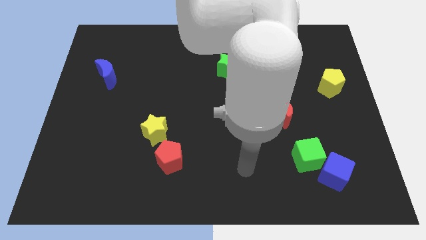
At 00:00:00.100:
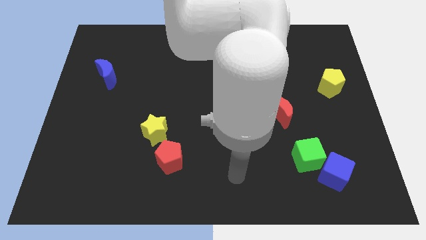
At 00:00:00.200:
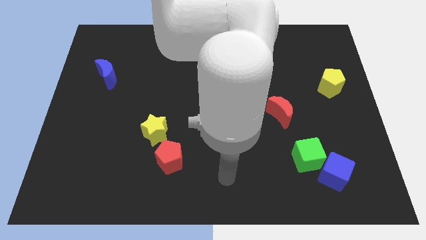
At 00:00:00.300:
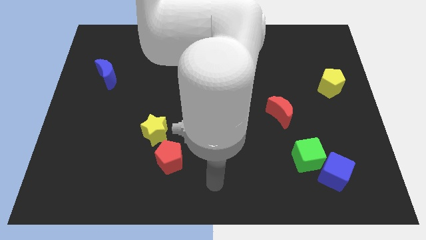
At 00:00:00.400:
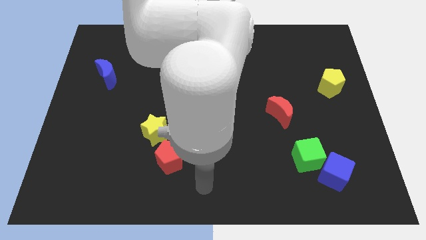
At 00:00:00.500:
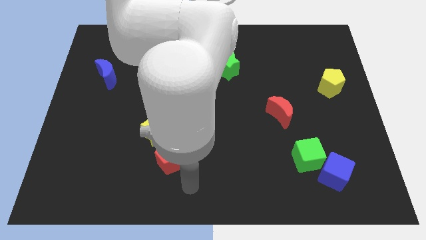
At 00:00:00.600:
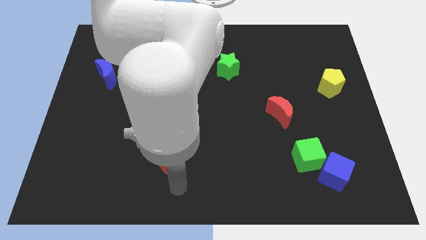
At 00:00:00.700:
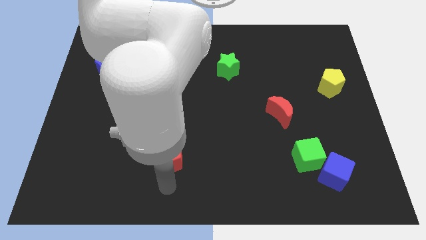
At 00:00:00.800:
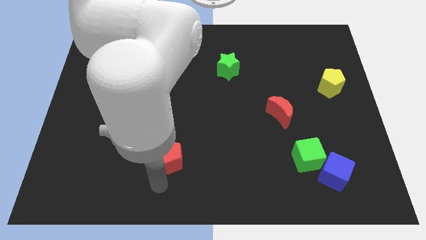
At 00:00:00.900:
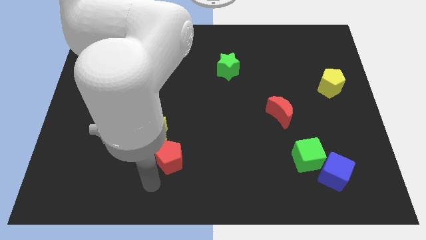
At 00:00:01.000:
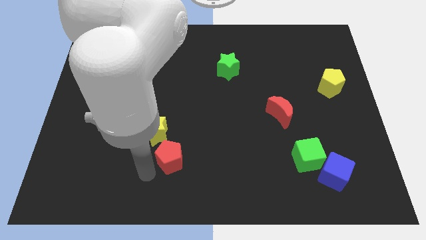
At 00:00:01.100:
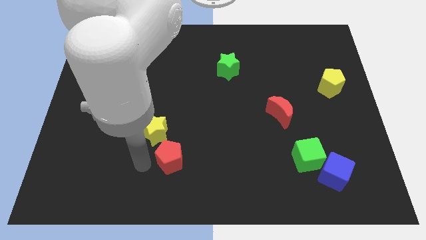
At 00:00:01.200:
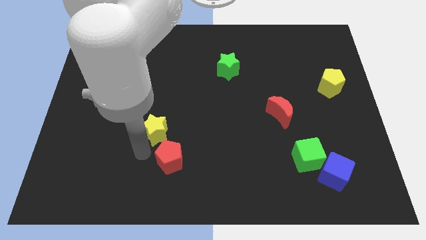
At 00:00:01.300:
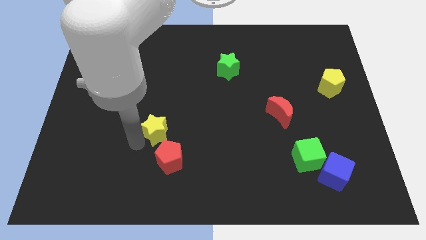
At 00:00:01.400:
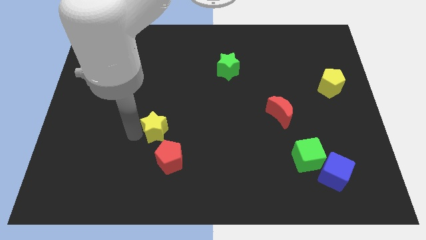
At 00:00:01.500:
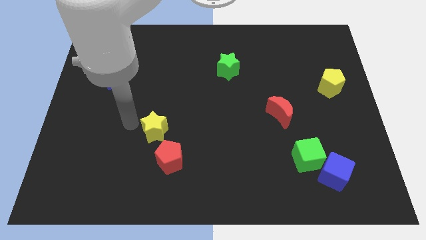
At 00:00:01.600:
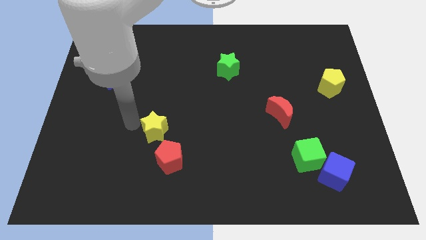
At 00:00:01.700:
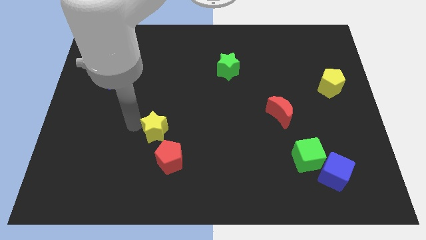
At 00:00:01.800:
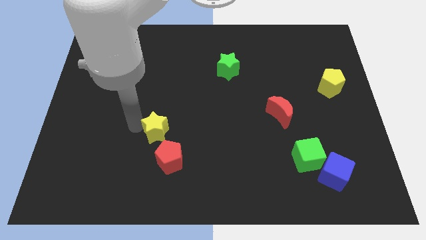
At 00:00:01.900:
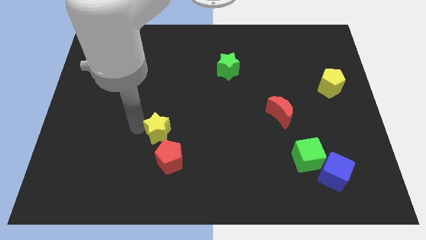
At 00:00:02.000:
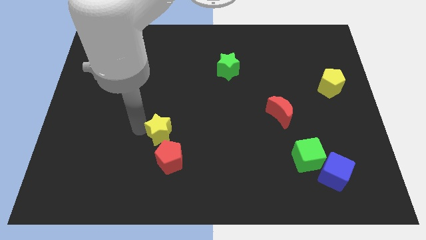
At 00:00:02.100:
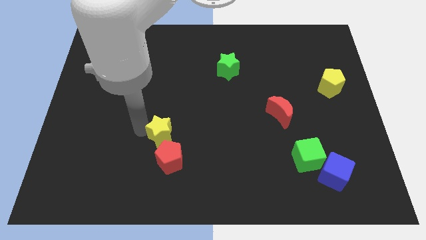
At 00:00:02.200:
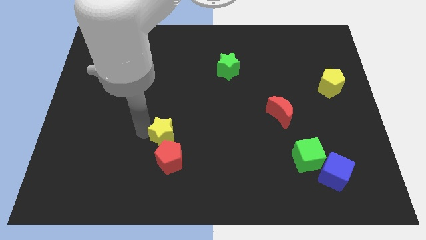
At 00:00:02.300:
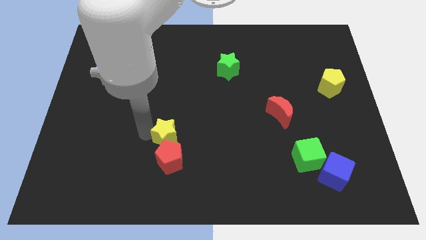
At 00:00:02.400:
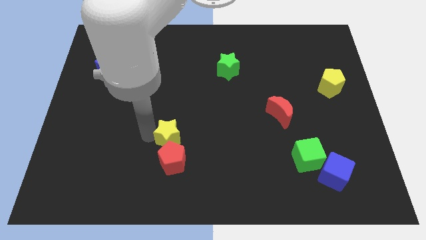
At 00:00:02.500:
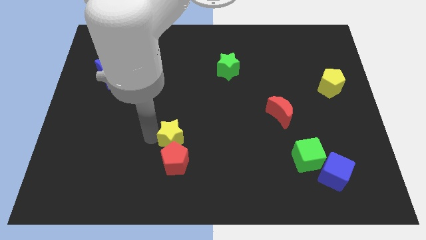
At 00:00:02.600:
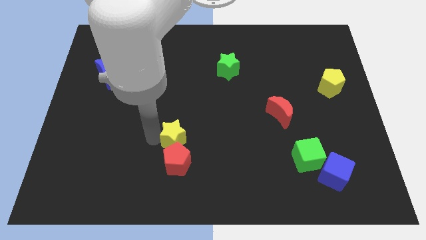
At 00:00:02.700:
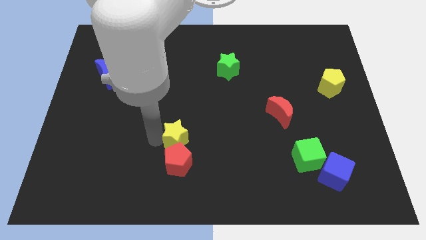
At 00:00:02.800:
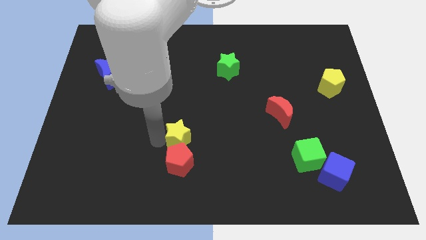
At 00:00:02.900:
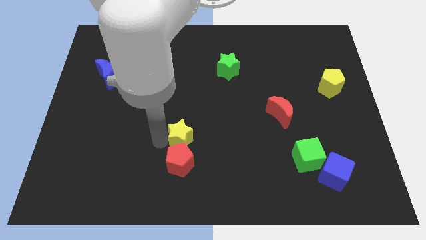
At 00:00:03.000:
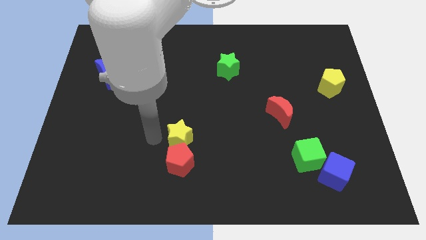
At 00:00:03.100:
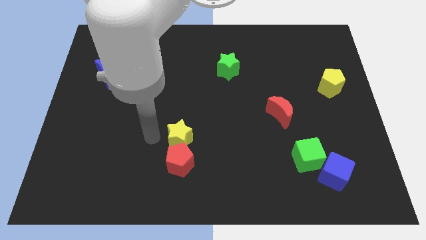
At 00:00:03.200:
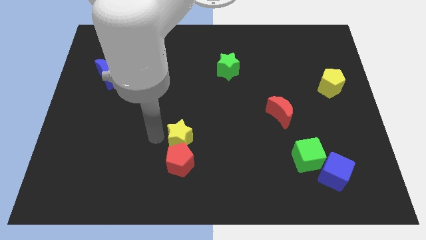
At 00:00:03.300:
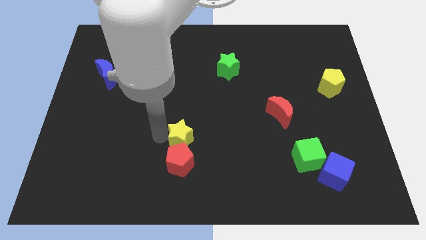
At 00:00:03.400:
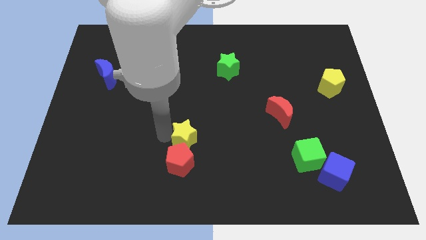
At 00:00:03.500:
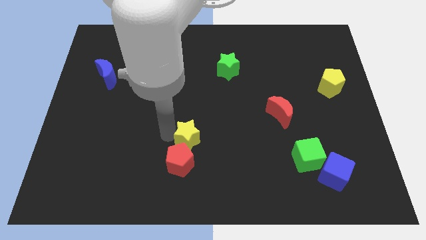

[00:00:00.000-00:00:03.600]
slide the yellow star slightly right

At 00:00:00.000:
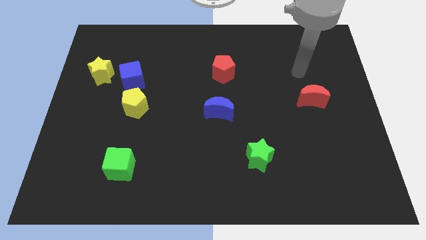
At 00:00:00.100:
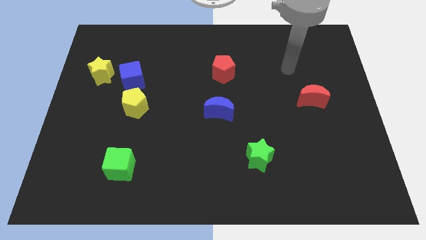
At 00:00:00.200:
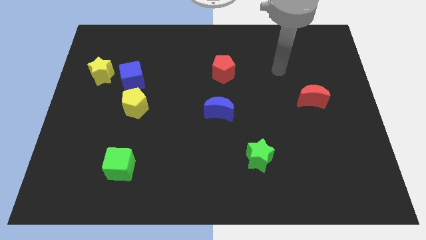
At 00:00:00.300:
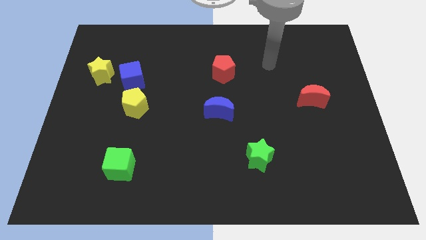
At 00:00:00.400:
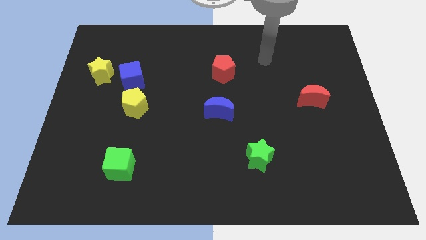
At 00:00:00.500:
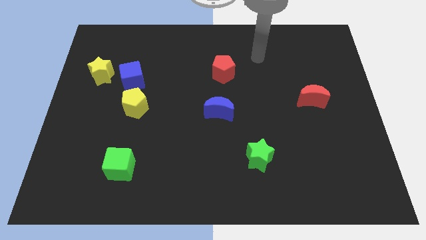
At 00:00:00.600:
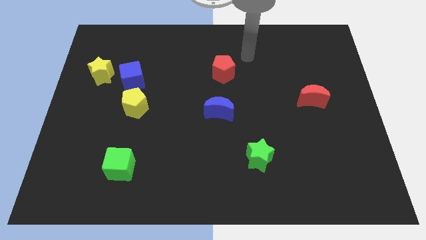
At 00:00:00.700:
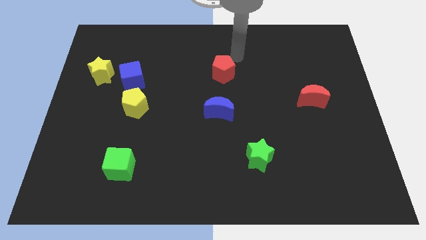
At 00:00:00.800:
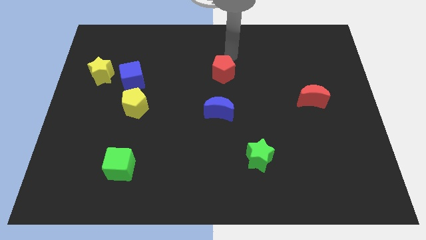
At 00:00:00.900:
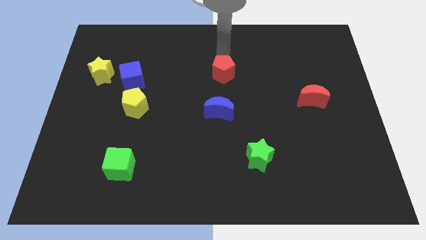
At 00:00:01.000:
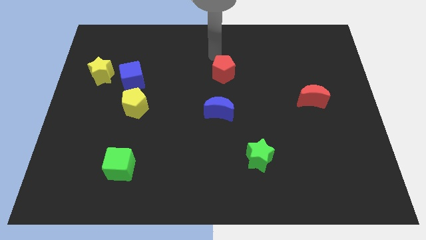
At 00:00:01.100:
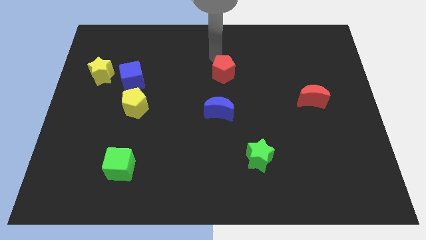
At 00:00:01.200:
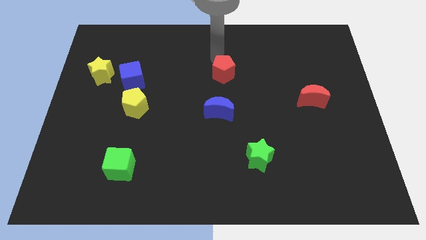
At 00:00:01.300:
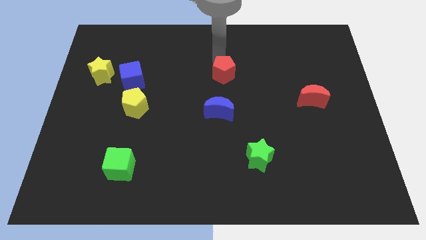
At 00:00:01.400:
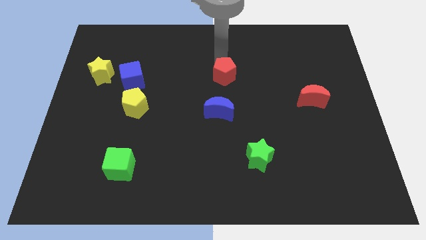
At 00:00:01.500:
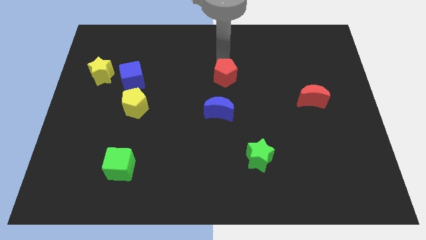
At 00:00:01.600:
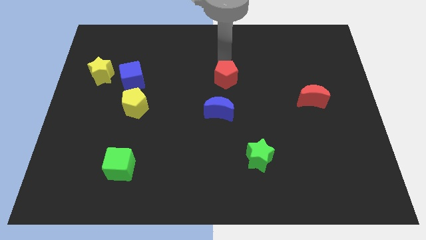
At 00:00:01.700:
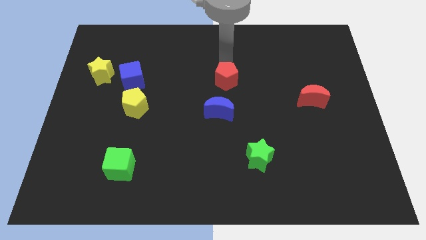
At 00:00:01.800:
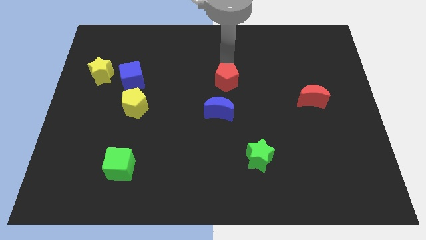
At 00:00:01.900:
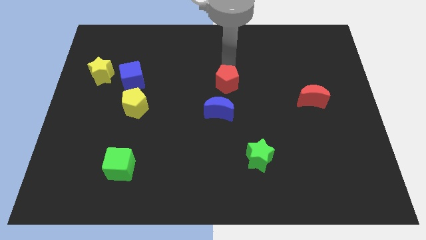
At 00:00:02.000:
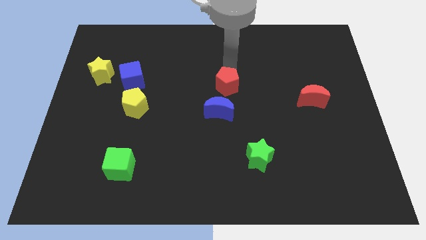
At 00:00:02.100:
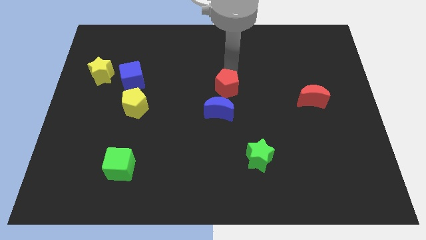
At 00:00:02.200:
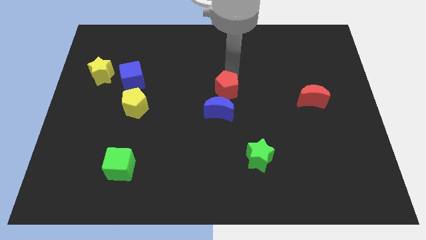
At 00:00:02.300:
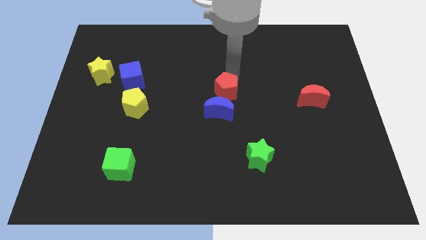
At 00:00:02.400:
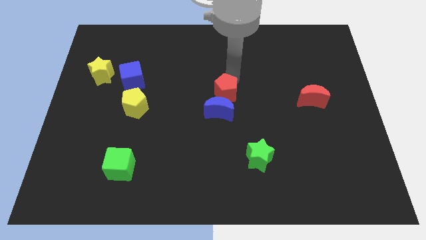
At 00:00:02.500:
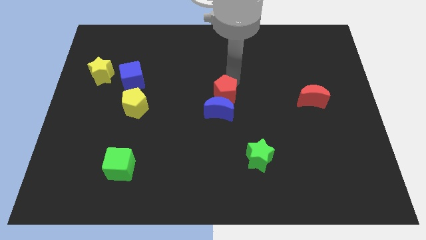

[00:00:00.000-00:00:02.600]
slightly push the red pentagon down

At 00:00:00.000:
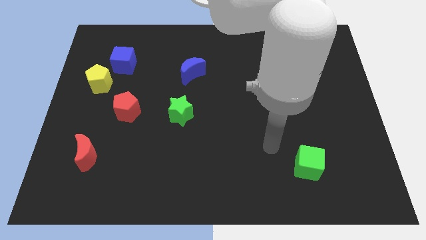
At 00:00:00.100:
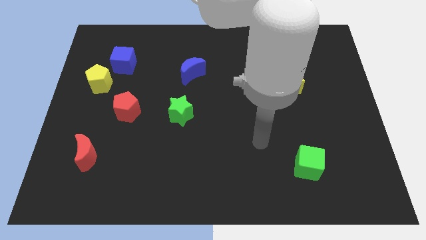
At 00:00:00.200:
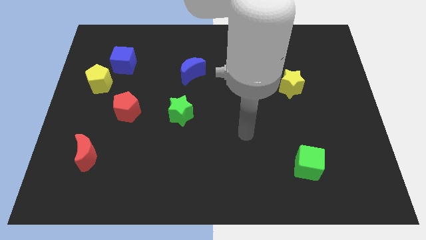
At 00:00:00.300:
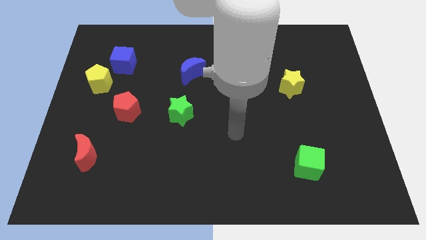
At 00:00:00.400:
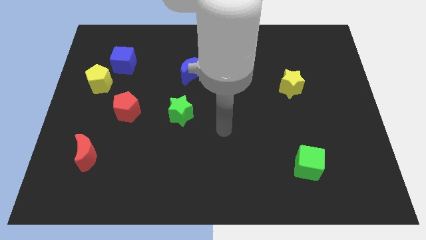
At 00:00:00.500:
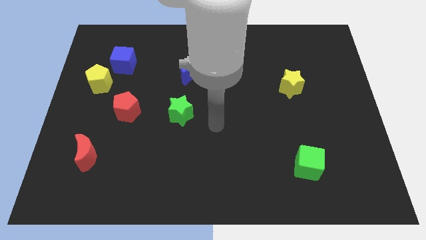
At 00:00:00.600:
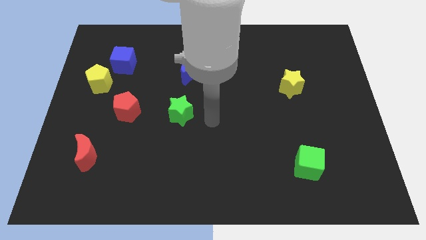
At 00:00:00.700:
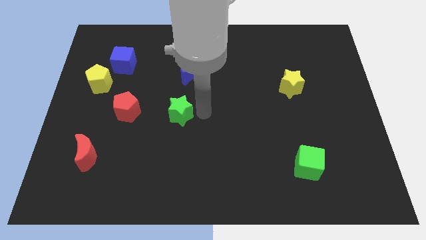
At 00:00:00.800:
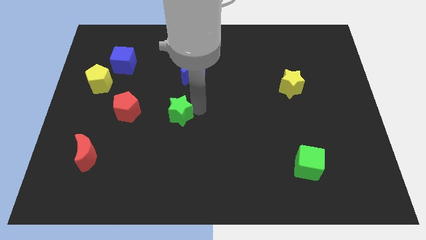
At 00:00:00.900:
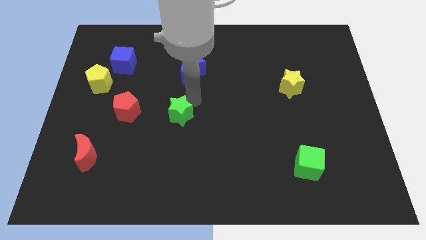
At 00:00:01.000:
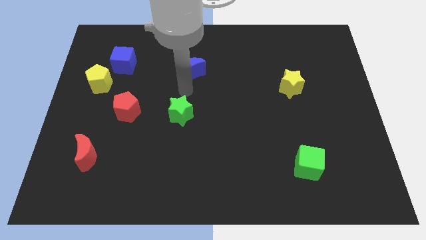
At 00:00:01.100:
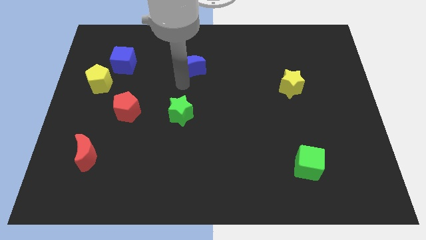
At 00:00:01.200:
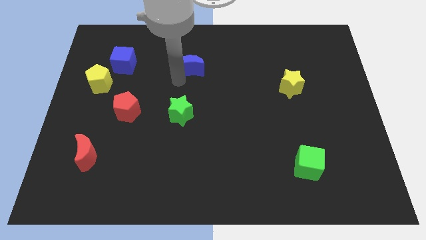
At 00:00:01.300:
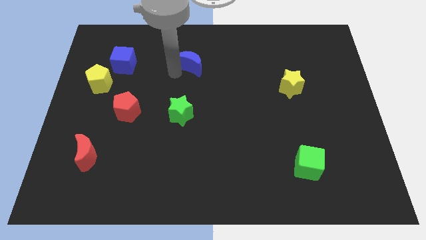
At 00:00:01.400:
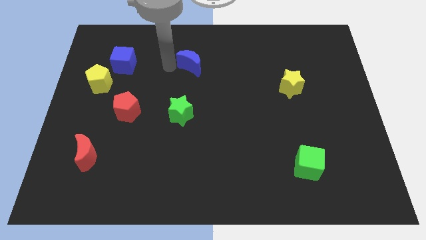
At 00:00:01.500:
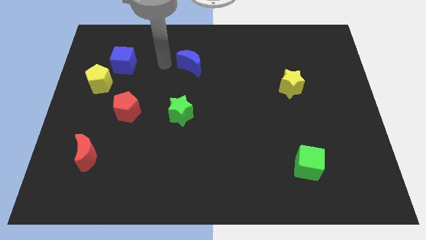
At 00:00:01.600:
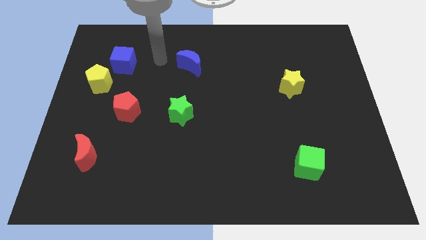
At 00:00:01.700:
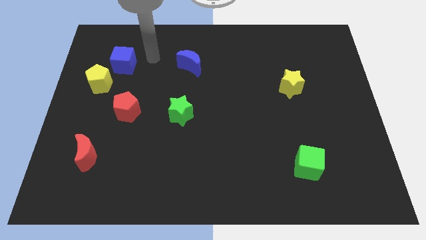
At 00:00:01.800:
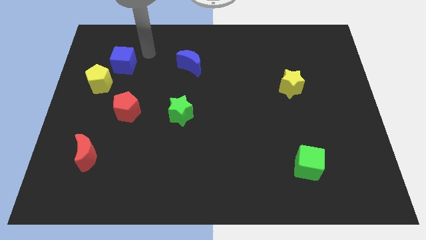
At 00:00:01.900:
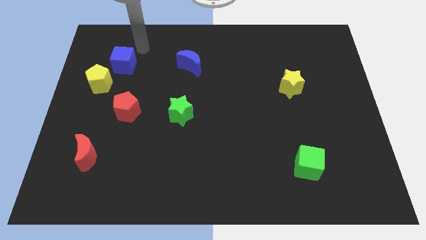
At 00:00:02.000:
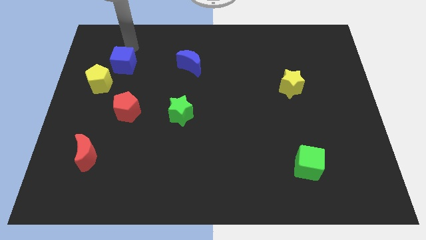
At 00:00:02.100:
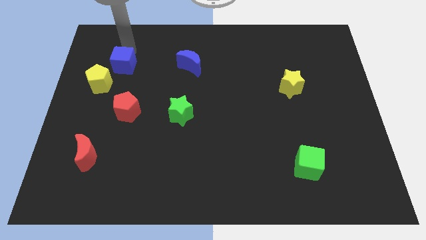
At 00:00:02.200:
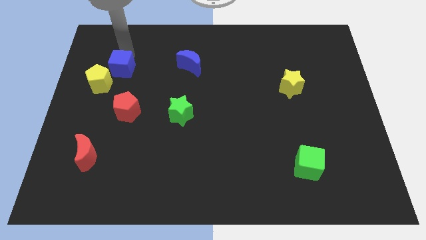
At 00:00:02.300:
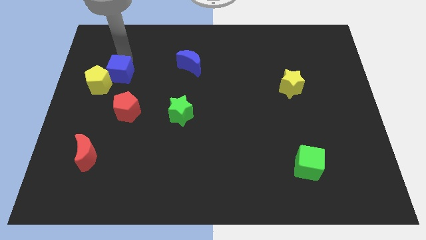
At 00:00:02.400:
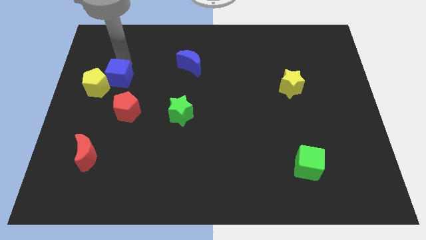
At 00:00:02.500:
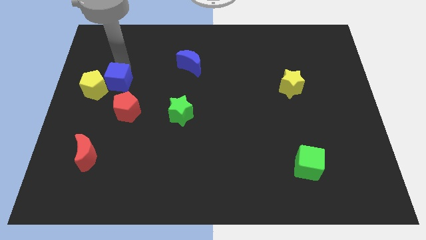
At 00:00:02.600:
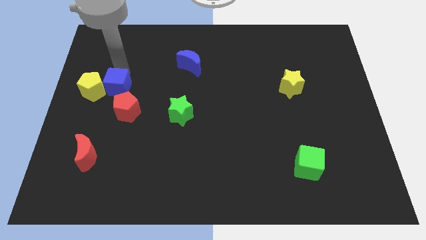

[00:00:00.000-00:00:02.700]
slightly move the blue cube downwards
